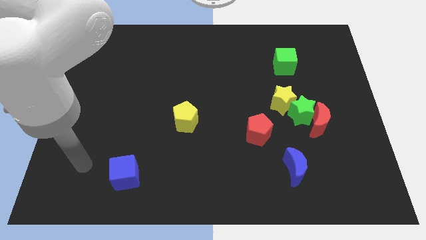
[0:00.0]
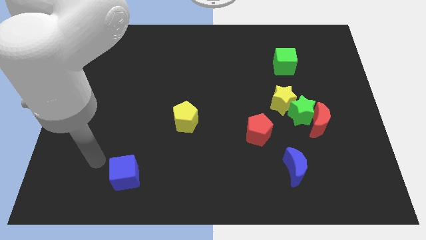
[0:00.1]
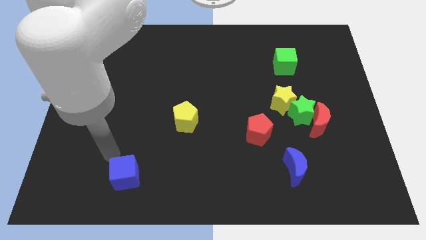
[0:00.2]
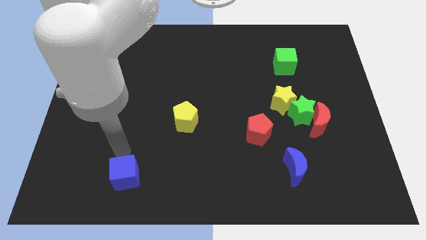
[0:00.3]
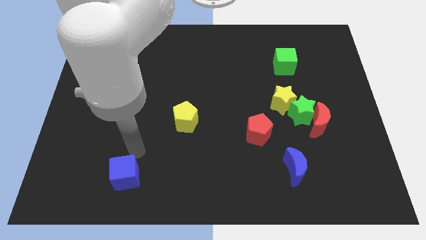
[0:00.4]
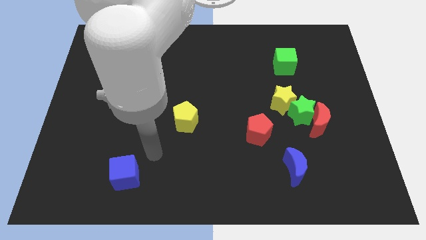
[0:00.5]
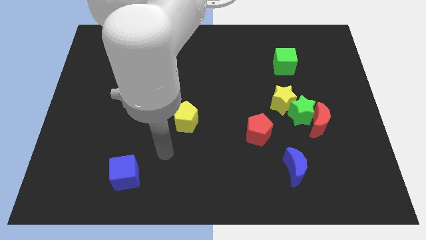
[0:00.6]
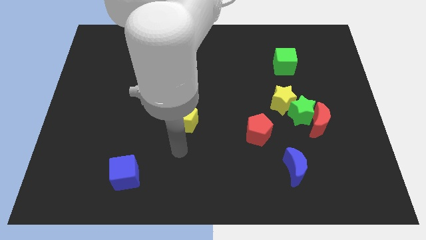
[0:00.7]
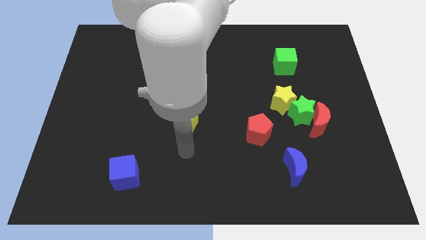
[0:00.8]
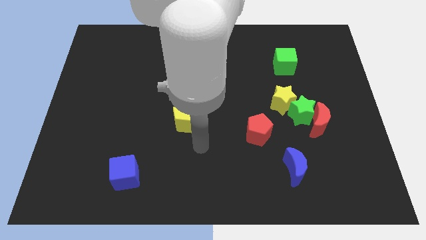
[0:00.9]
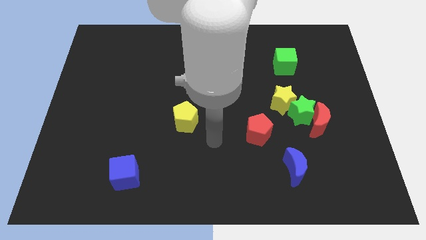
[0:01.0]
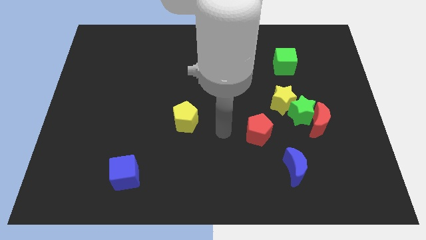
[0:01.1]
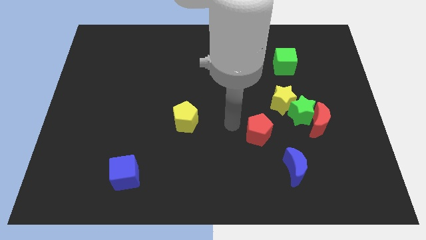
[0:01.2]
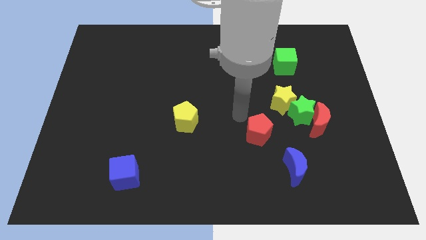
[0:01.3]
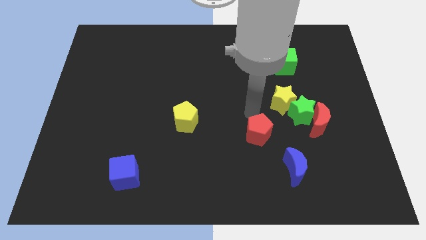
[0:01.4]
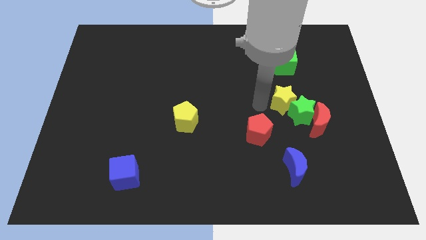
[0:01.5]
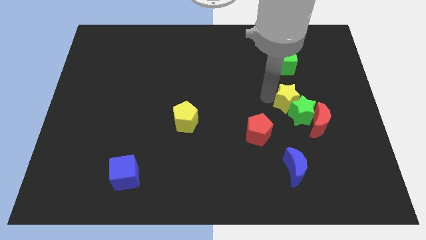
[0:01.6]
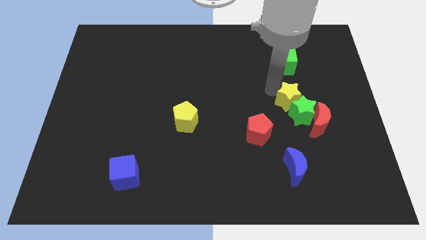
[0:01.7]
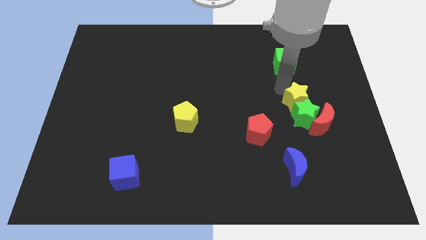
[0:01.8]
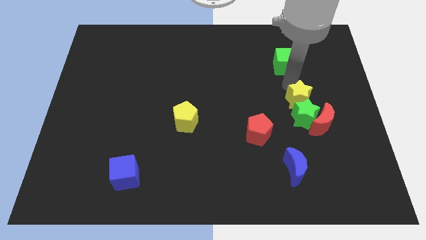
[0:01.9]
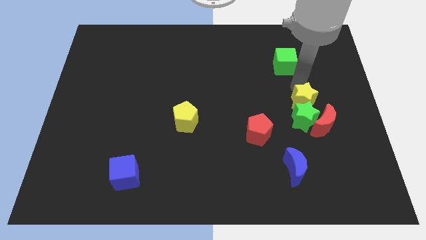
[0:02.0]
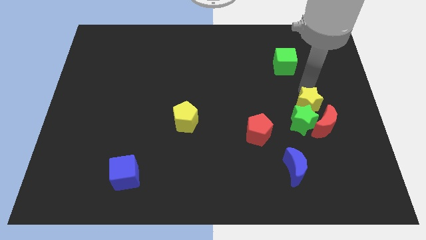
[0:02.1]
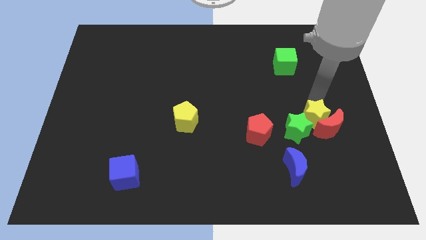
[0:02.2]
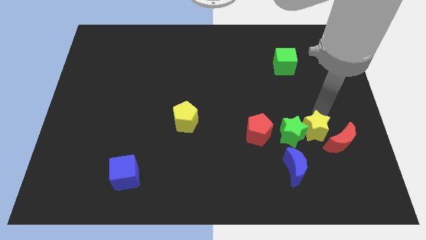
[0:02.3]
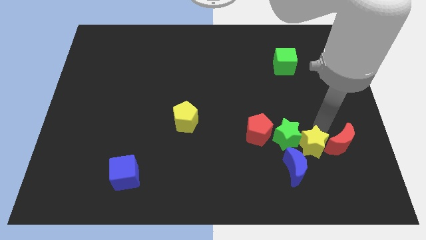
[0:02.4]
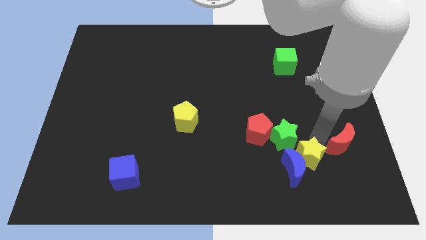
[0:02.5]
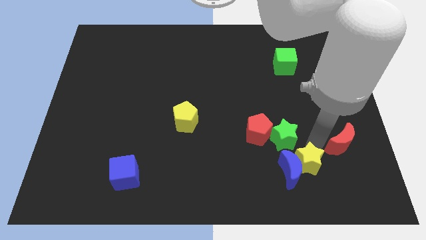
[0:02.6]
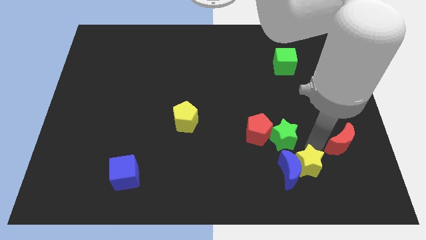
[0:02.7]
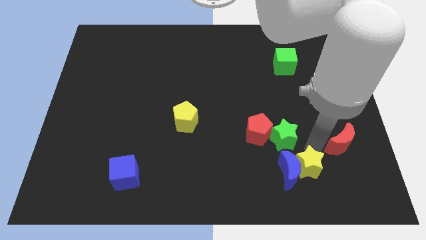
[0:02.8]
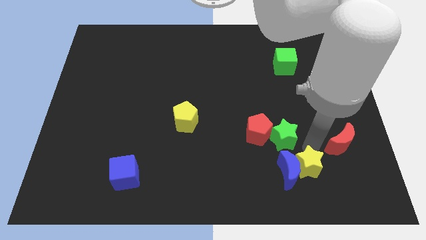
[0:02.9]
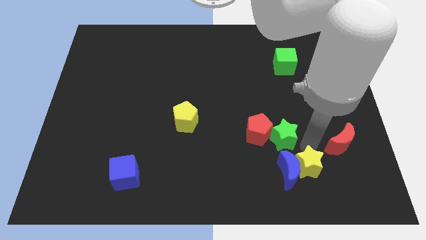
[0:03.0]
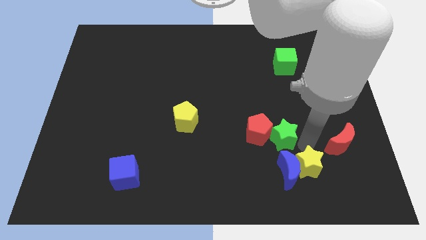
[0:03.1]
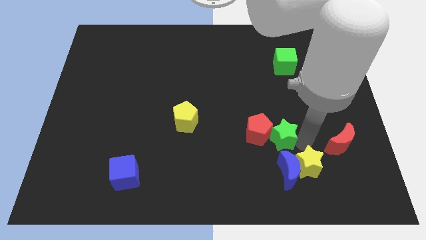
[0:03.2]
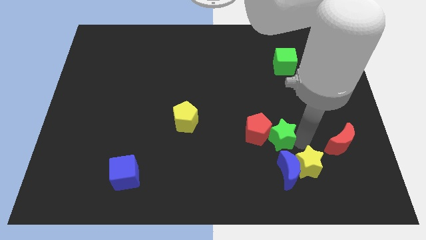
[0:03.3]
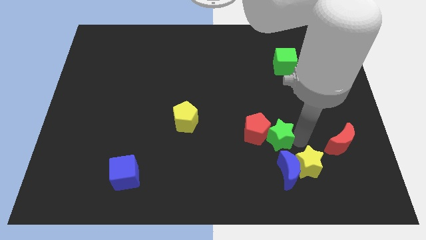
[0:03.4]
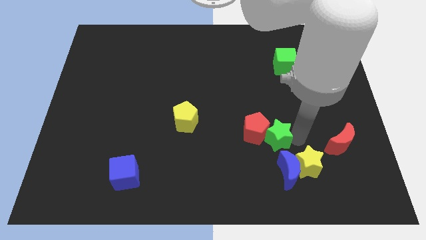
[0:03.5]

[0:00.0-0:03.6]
pull the green star apart from the yellow star and red moon

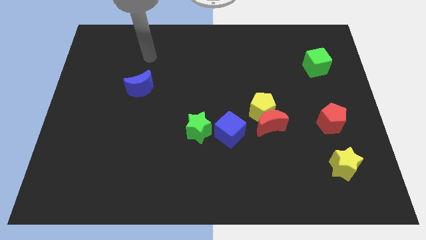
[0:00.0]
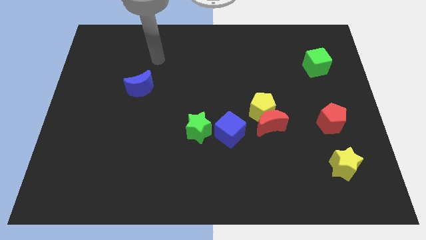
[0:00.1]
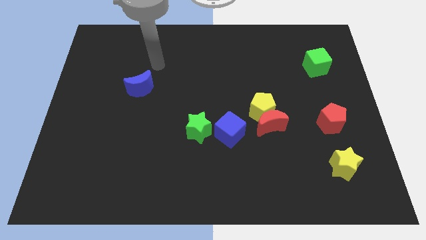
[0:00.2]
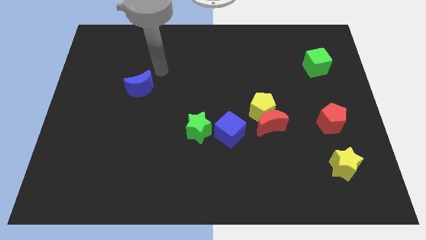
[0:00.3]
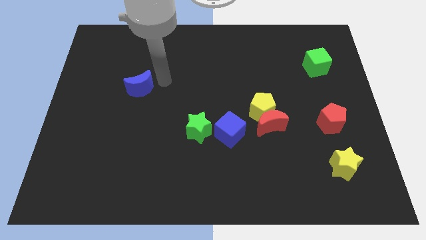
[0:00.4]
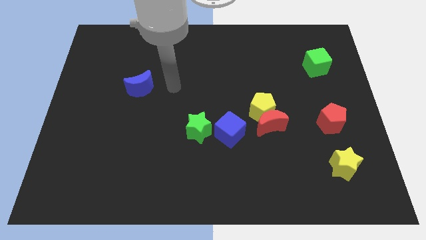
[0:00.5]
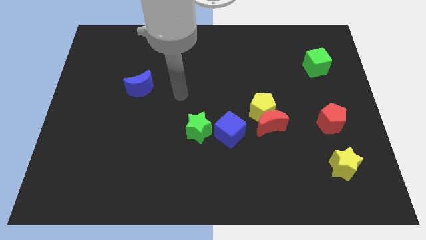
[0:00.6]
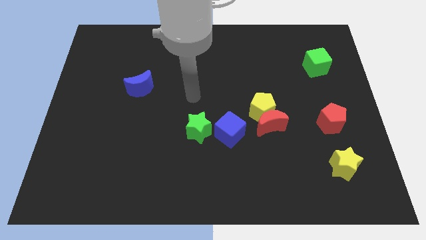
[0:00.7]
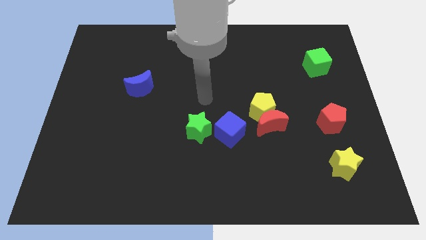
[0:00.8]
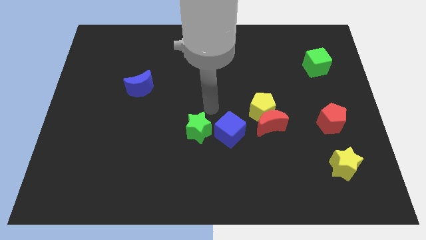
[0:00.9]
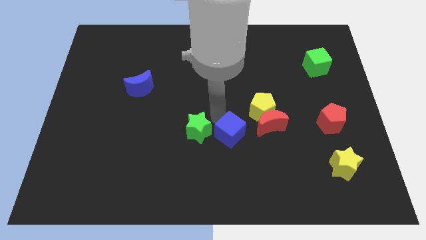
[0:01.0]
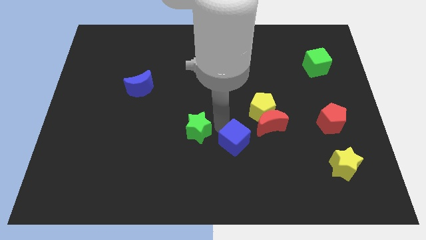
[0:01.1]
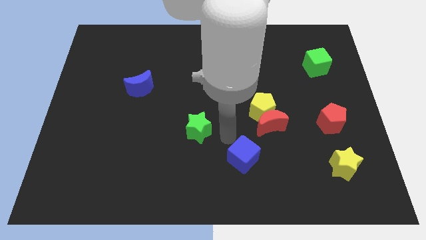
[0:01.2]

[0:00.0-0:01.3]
separate the green star from the blue cube

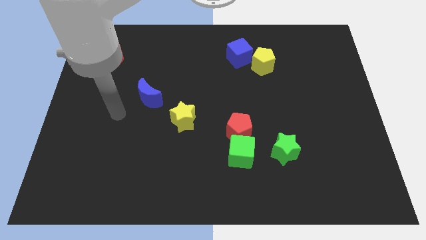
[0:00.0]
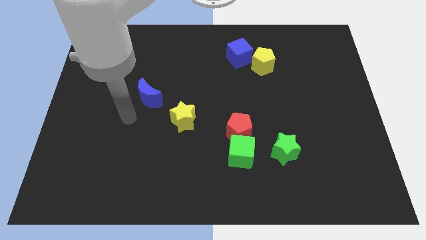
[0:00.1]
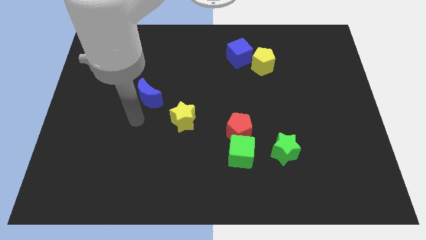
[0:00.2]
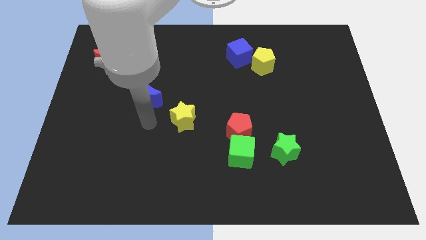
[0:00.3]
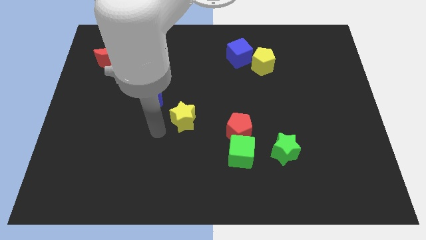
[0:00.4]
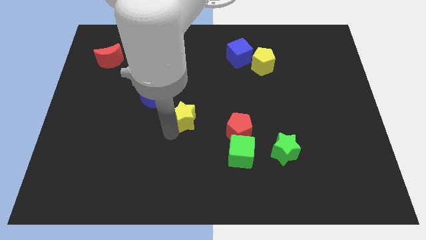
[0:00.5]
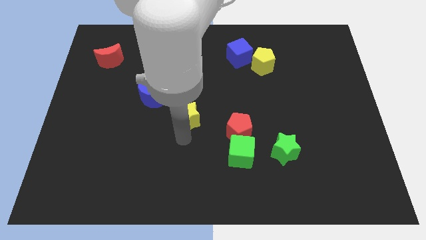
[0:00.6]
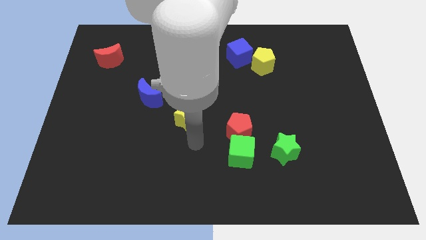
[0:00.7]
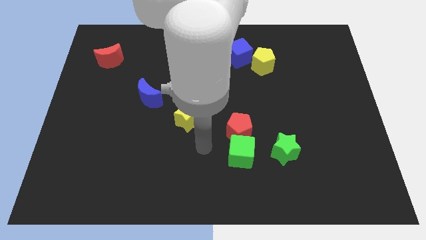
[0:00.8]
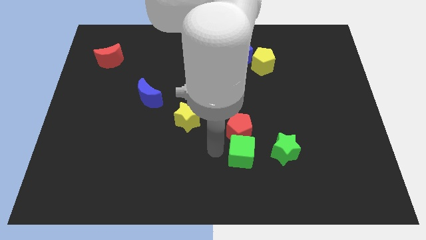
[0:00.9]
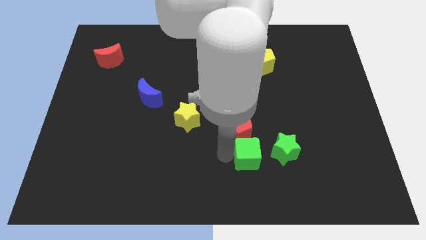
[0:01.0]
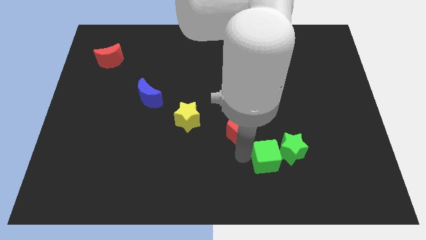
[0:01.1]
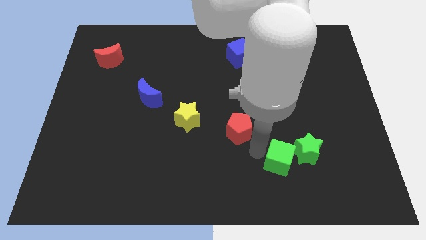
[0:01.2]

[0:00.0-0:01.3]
pull the red pentagon apart from the green cube

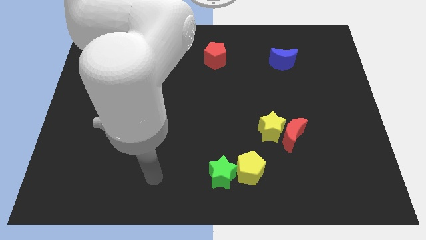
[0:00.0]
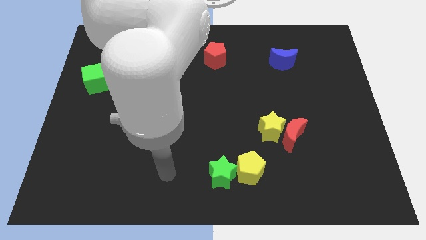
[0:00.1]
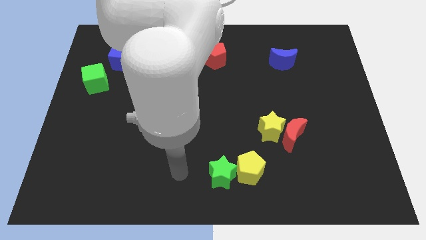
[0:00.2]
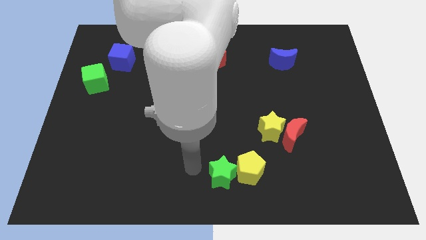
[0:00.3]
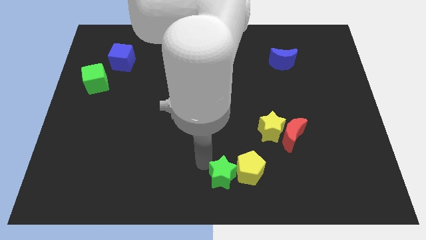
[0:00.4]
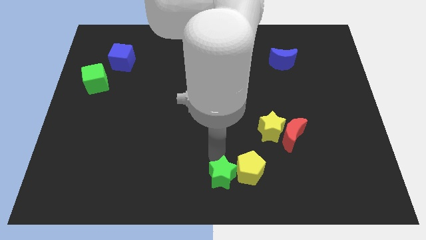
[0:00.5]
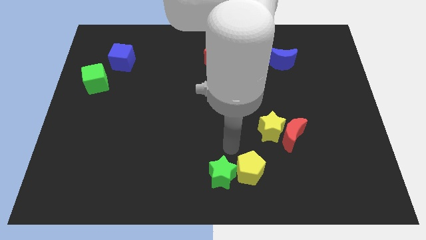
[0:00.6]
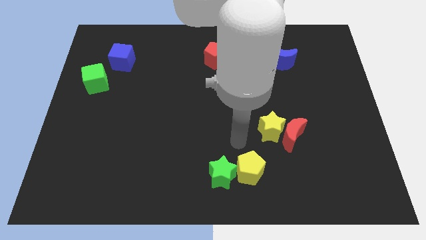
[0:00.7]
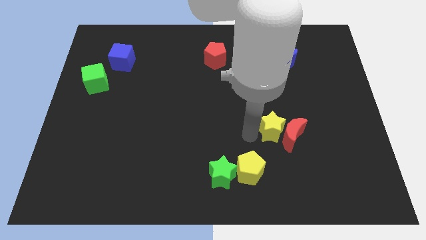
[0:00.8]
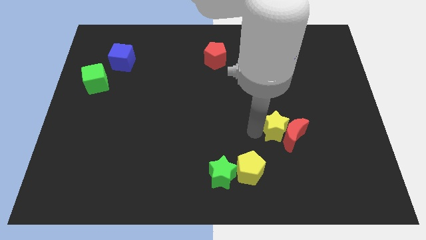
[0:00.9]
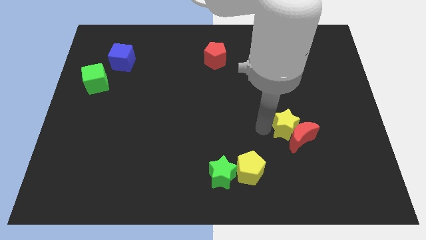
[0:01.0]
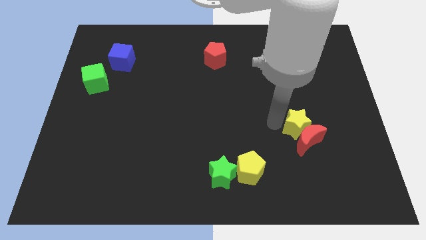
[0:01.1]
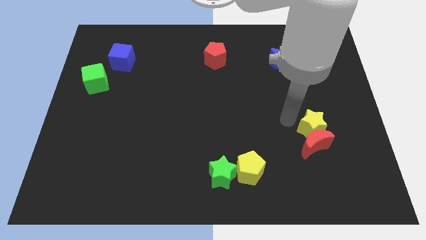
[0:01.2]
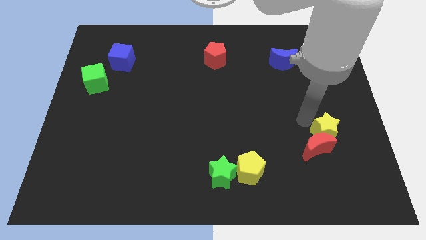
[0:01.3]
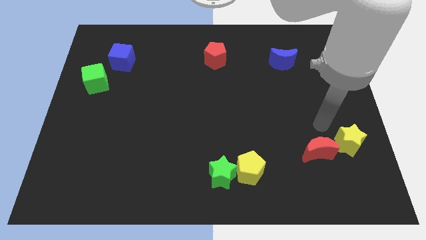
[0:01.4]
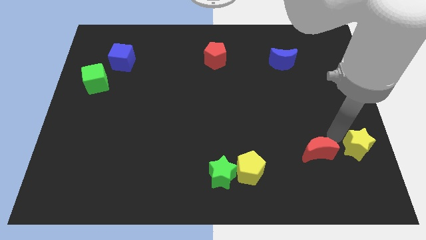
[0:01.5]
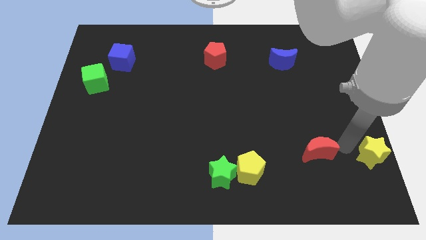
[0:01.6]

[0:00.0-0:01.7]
move the red moon away from the yellow star

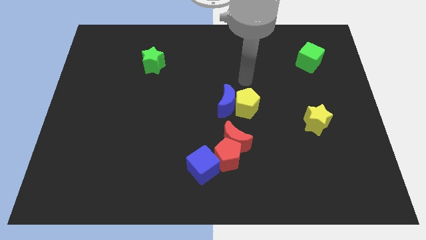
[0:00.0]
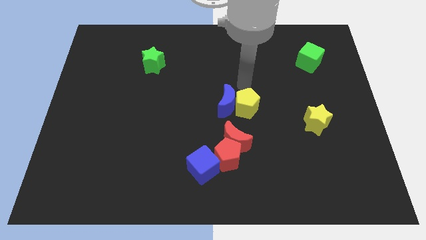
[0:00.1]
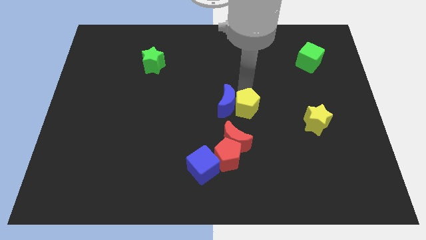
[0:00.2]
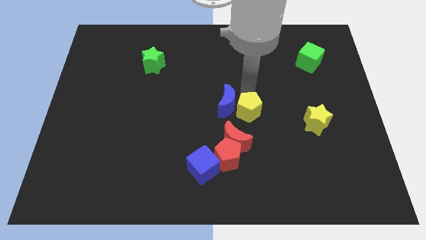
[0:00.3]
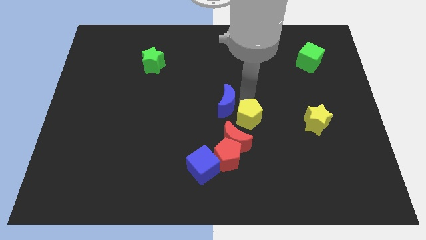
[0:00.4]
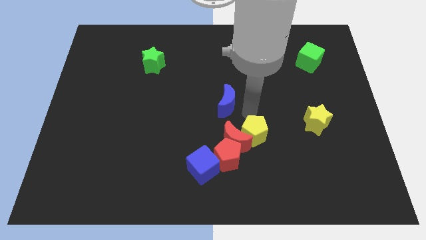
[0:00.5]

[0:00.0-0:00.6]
pull the blue moon apart from the yellow pentagon

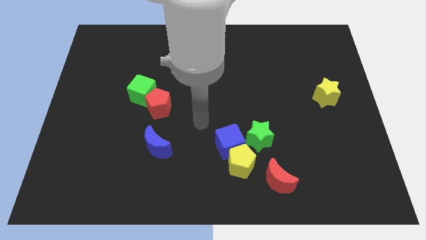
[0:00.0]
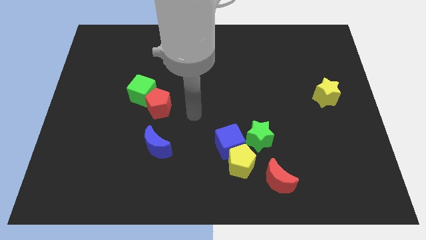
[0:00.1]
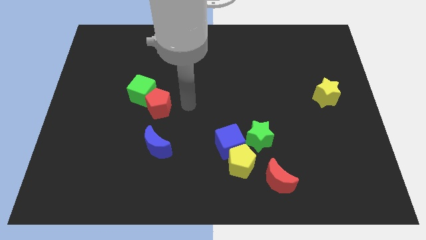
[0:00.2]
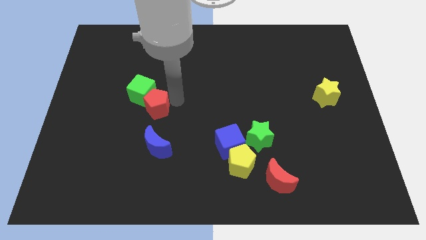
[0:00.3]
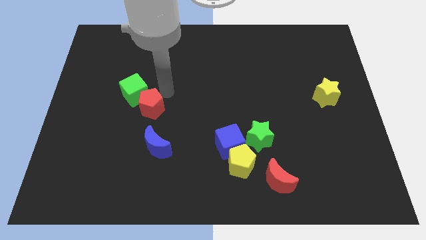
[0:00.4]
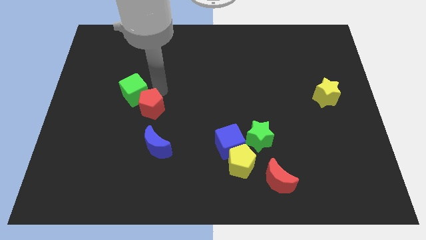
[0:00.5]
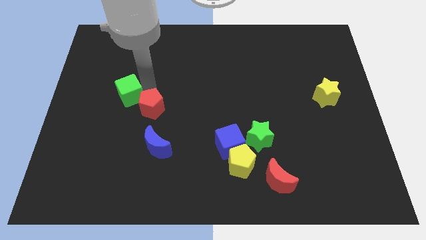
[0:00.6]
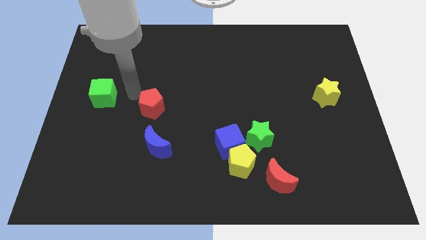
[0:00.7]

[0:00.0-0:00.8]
move the red pentagon away from the green cube
